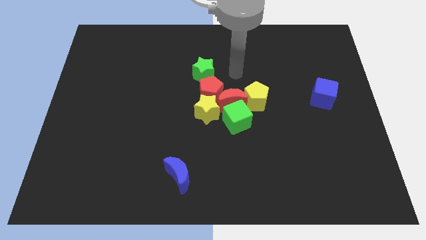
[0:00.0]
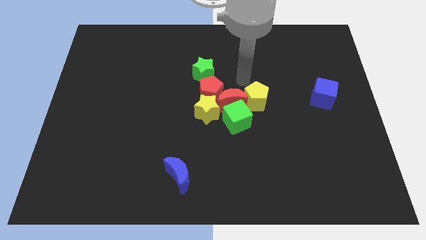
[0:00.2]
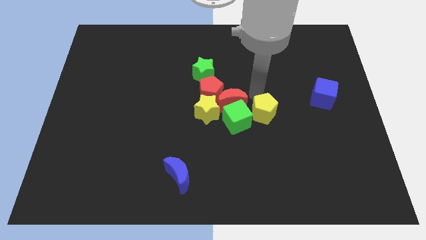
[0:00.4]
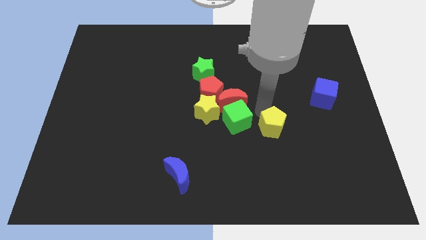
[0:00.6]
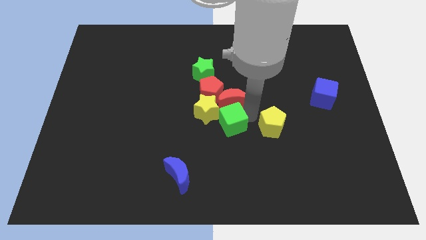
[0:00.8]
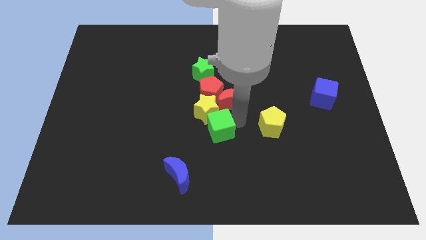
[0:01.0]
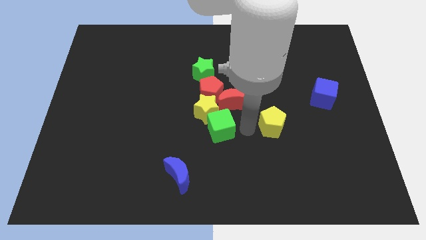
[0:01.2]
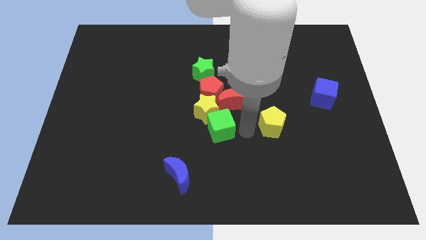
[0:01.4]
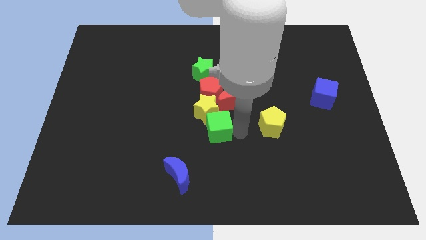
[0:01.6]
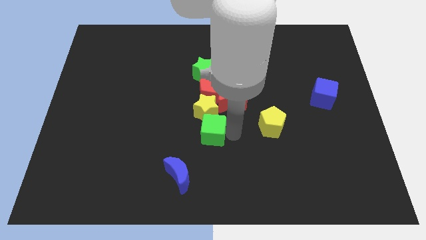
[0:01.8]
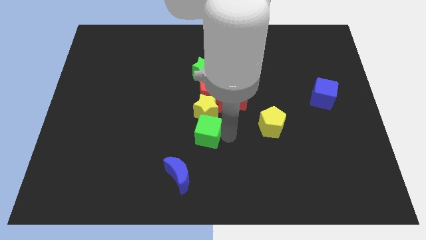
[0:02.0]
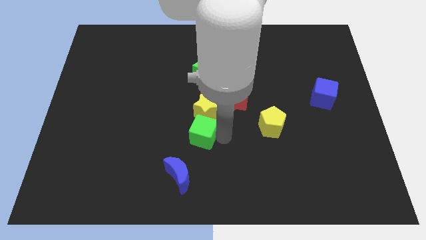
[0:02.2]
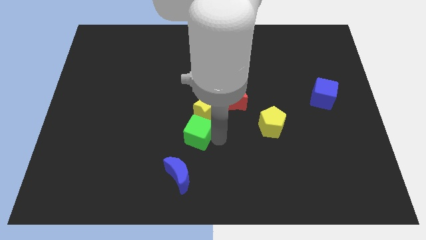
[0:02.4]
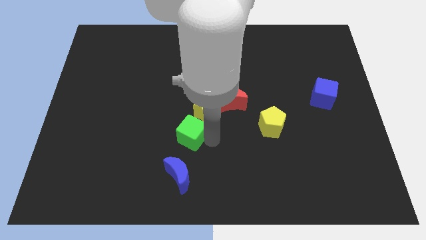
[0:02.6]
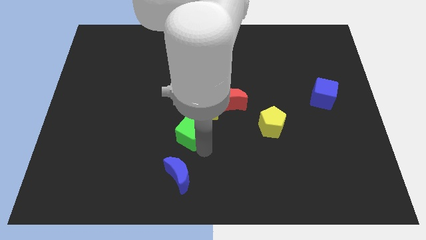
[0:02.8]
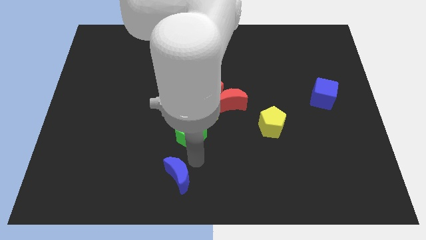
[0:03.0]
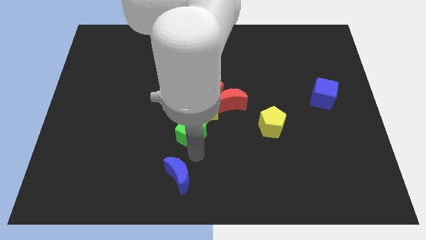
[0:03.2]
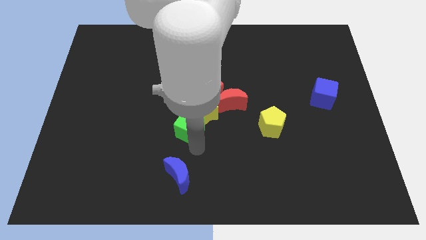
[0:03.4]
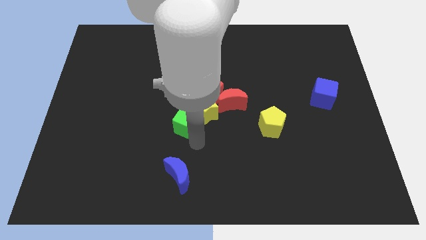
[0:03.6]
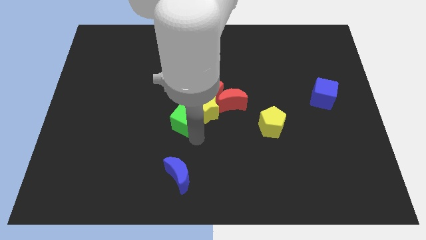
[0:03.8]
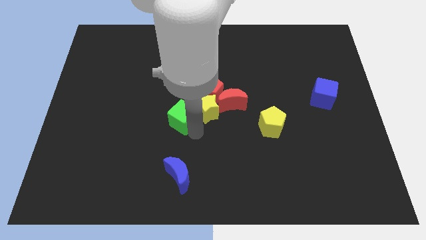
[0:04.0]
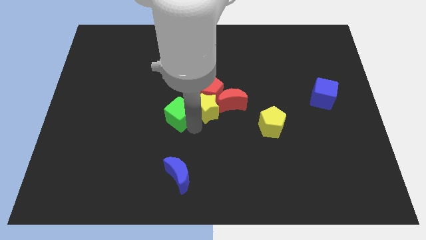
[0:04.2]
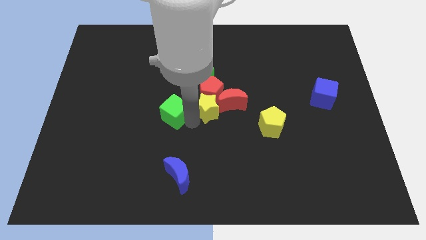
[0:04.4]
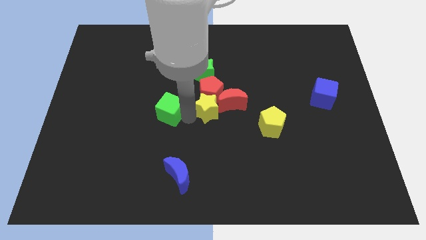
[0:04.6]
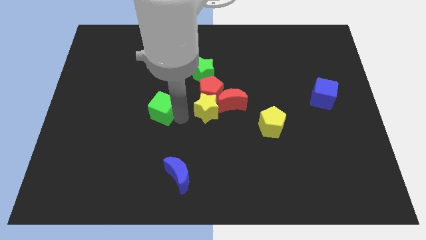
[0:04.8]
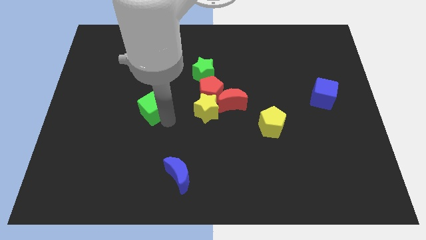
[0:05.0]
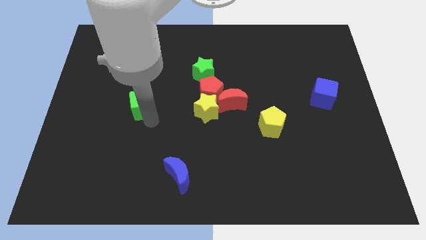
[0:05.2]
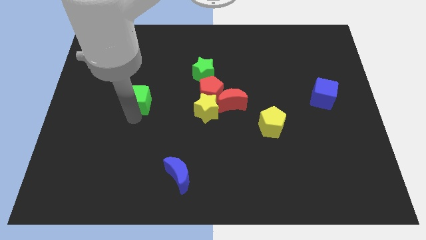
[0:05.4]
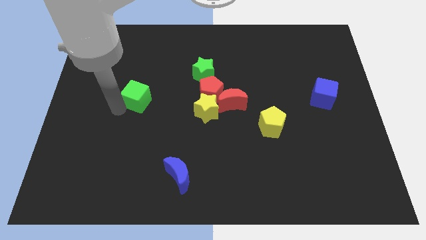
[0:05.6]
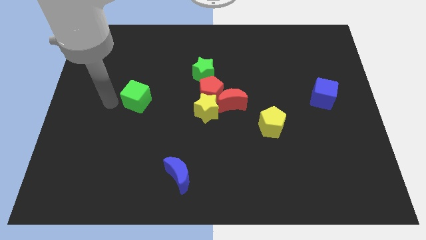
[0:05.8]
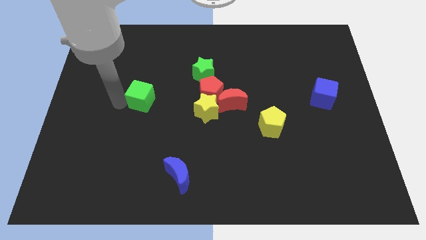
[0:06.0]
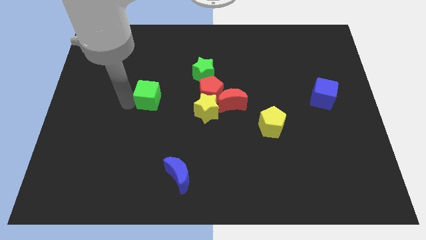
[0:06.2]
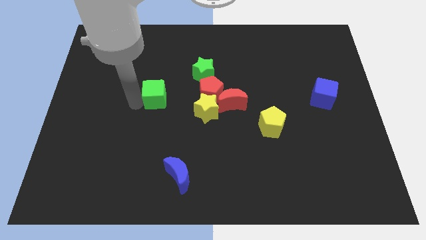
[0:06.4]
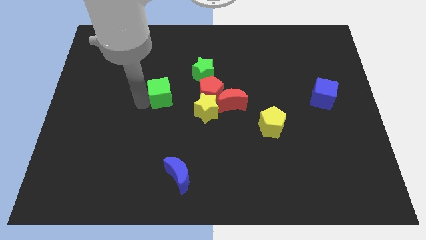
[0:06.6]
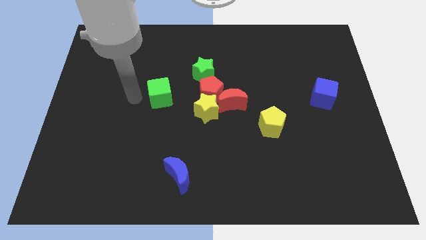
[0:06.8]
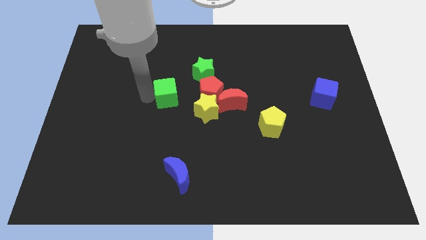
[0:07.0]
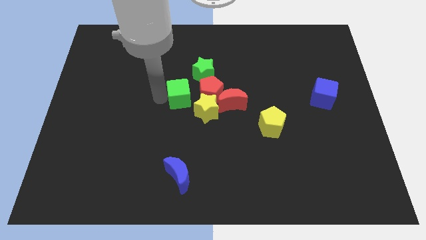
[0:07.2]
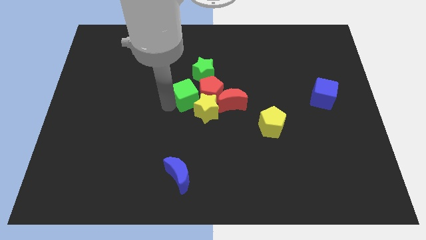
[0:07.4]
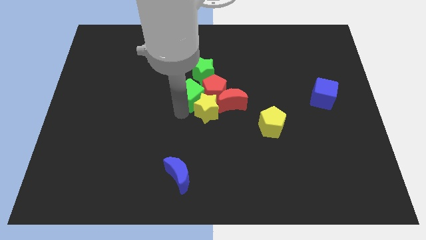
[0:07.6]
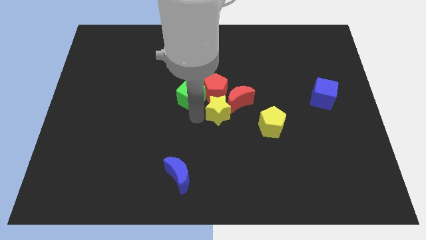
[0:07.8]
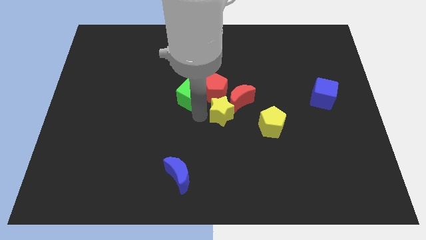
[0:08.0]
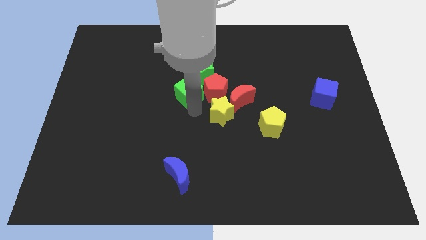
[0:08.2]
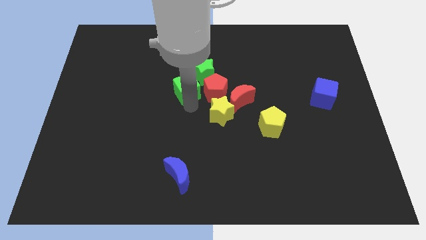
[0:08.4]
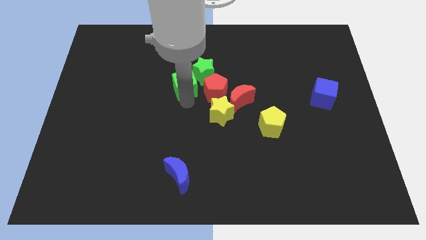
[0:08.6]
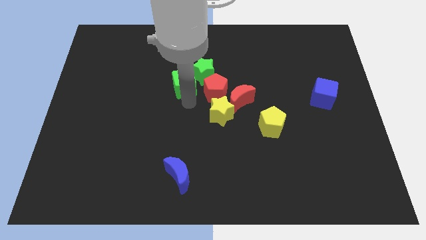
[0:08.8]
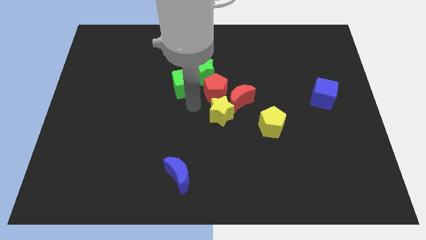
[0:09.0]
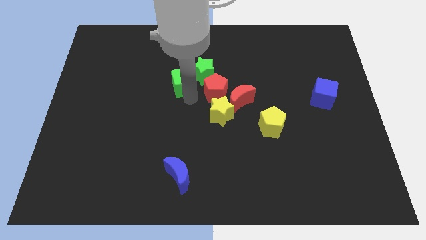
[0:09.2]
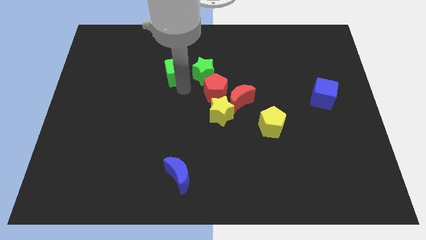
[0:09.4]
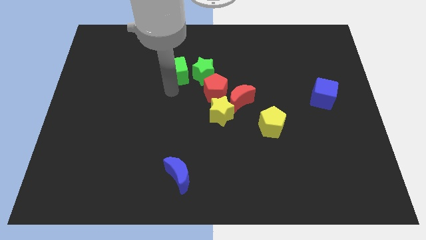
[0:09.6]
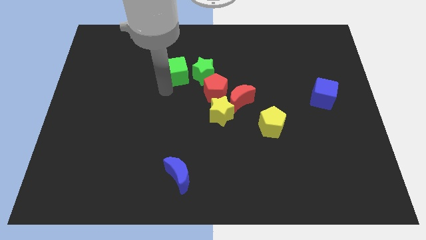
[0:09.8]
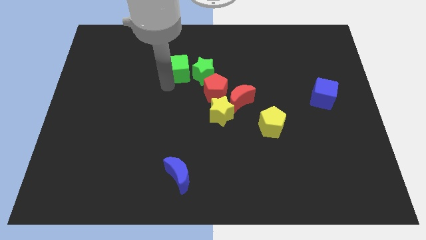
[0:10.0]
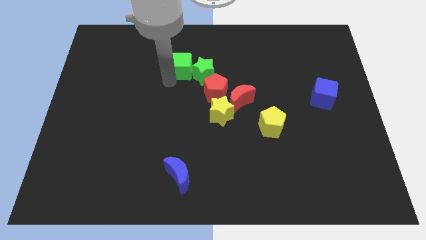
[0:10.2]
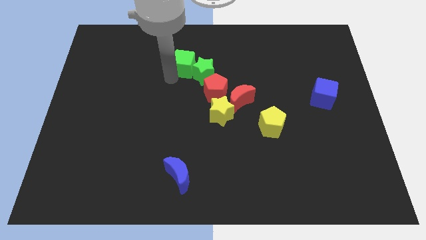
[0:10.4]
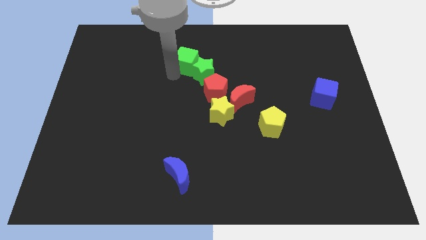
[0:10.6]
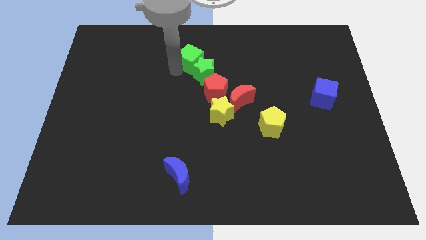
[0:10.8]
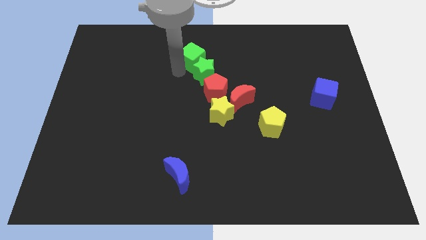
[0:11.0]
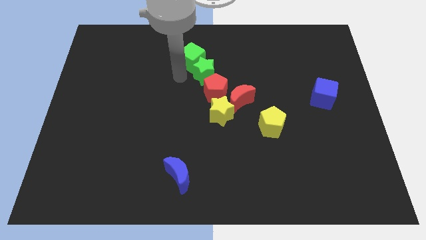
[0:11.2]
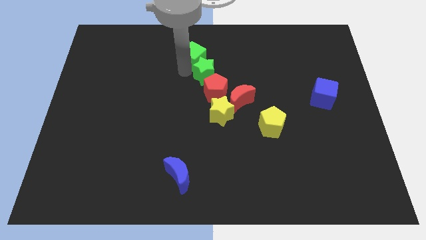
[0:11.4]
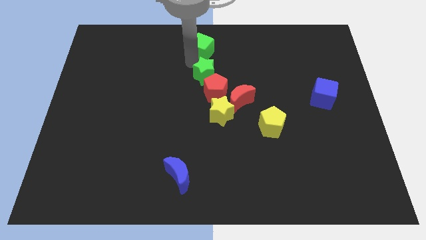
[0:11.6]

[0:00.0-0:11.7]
put the green cube to the top side

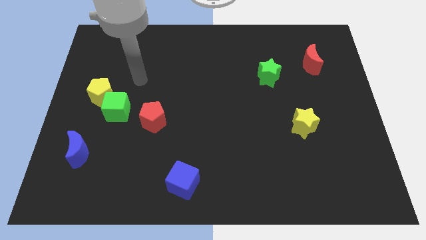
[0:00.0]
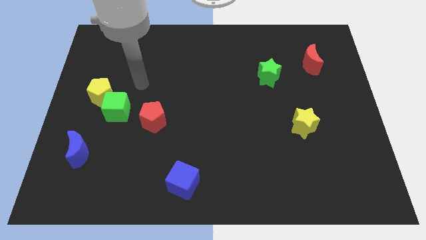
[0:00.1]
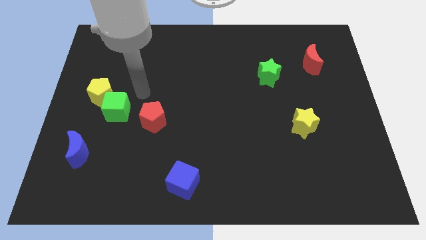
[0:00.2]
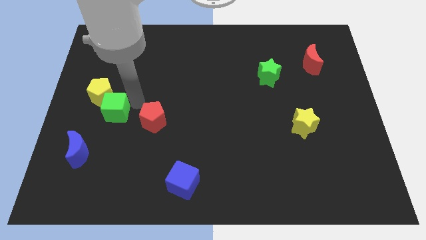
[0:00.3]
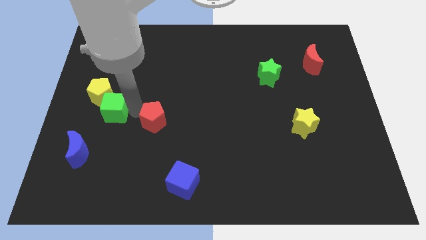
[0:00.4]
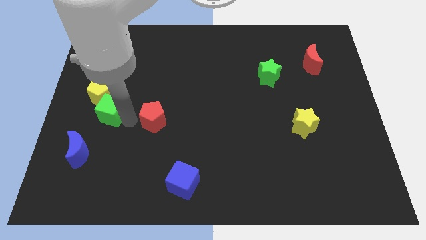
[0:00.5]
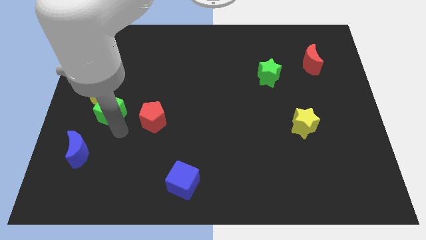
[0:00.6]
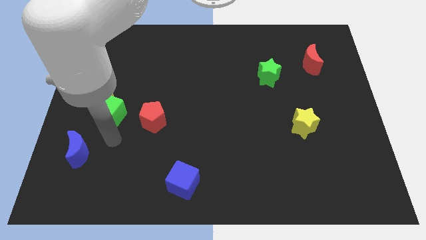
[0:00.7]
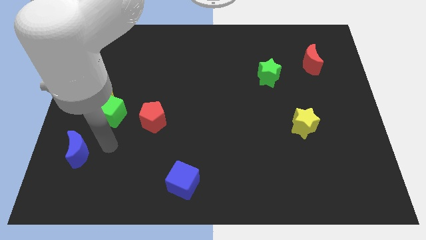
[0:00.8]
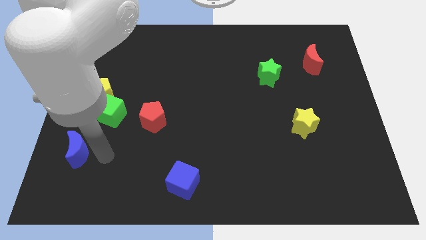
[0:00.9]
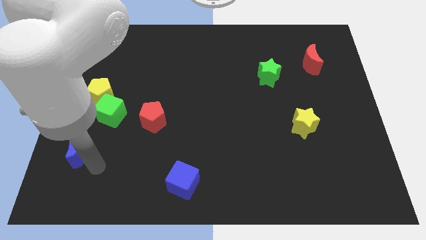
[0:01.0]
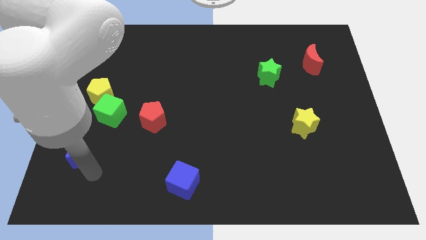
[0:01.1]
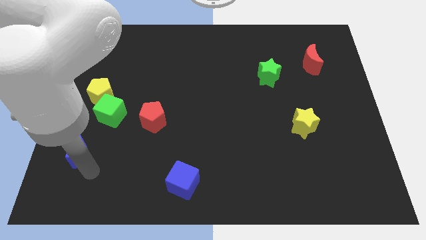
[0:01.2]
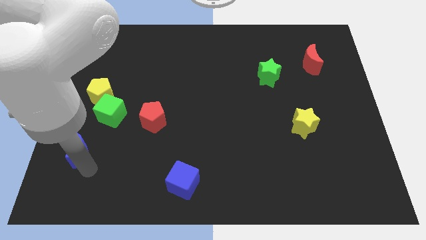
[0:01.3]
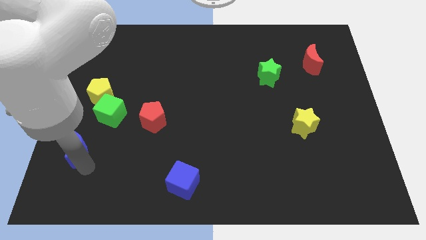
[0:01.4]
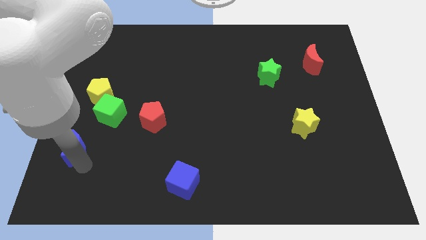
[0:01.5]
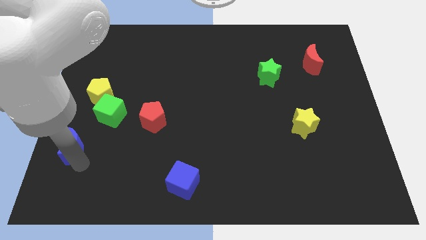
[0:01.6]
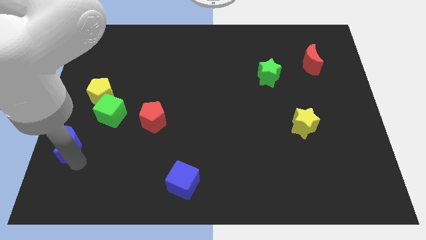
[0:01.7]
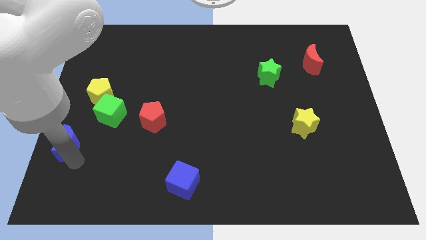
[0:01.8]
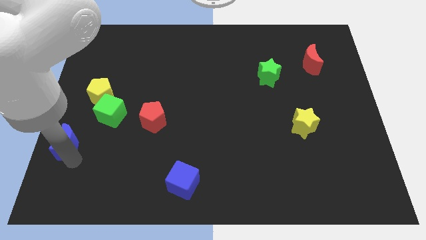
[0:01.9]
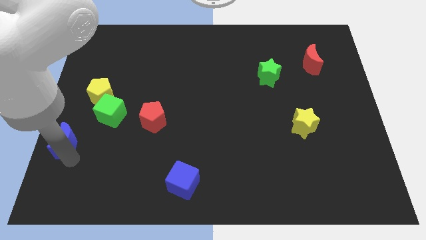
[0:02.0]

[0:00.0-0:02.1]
move the blue moon to the left side
